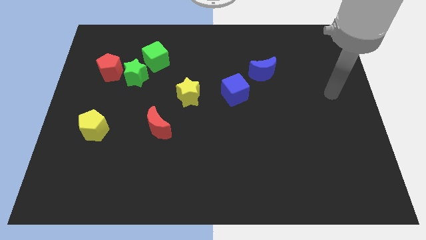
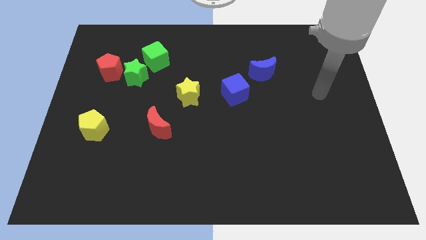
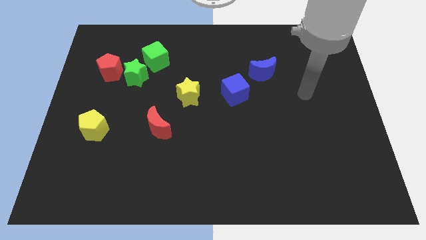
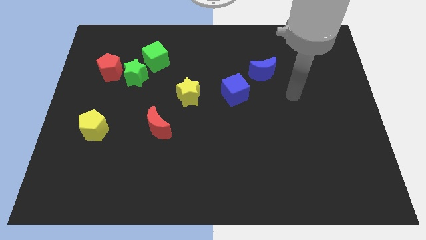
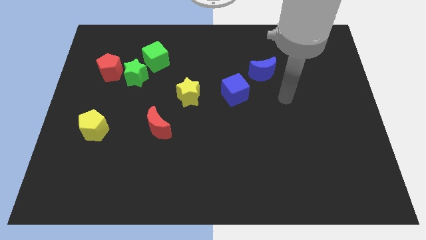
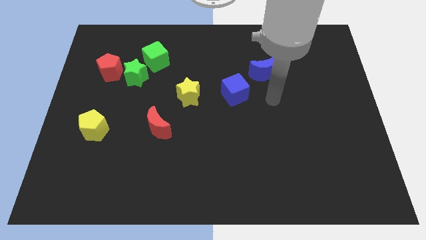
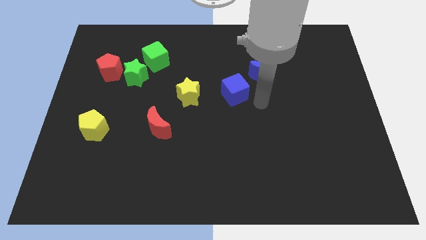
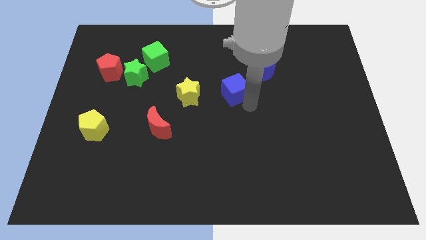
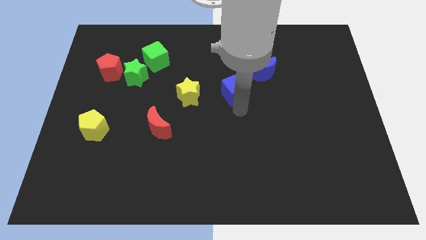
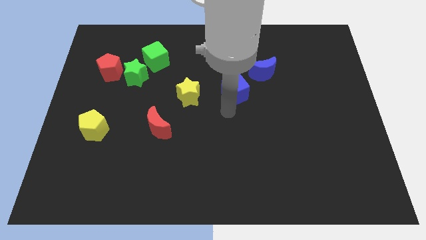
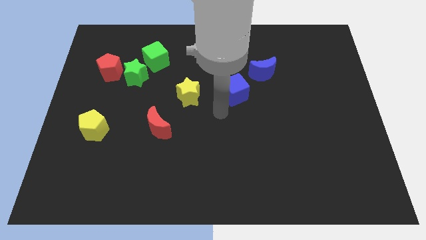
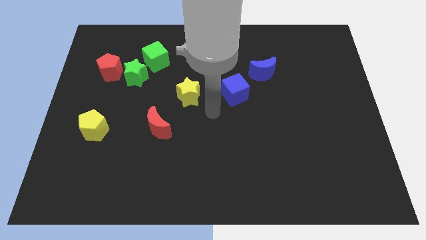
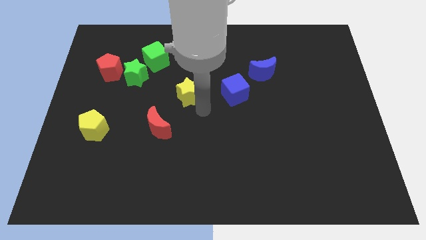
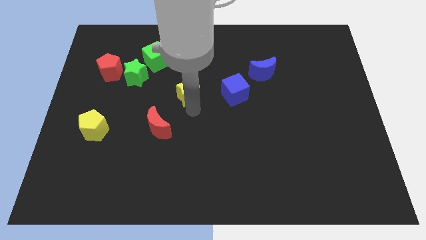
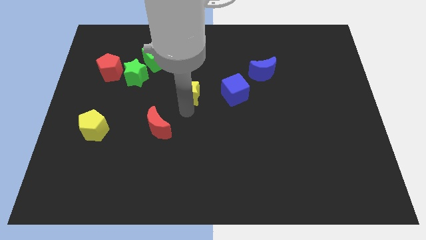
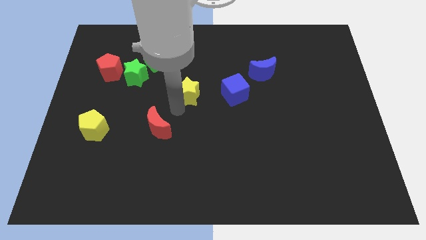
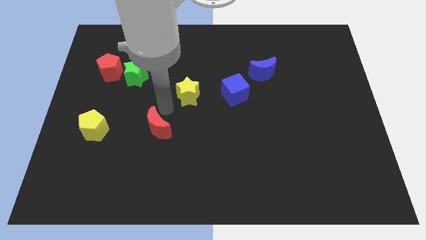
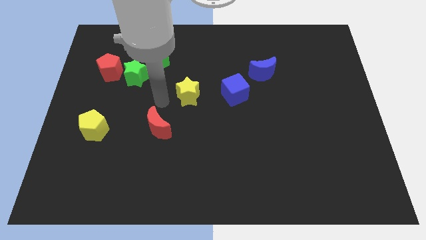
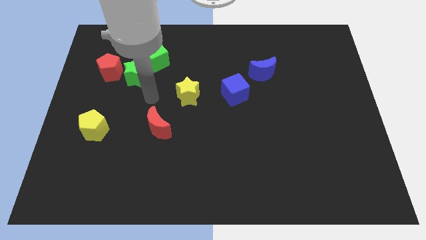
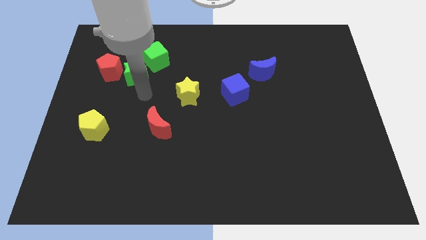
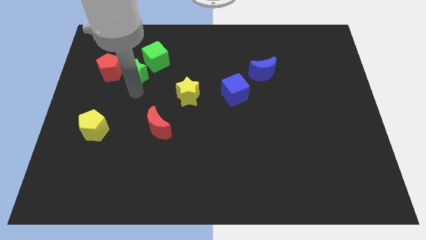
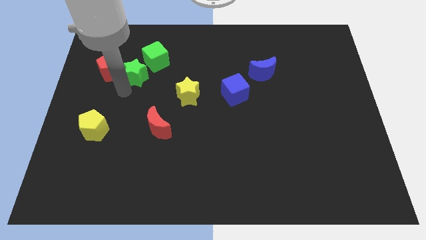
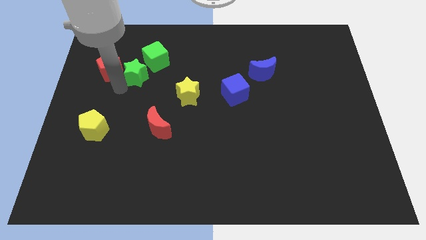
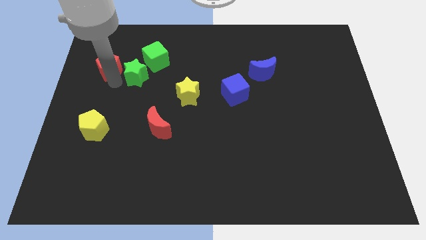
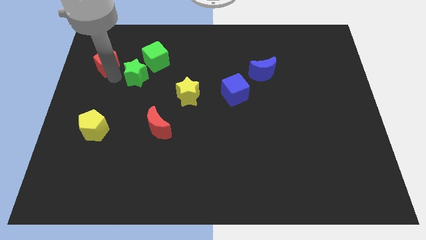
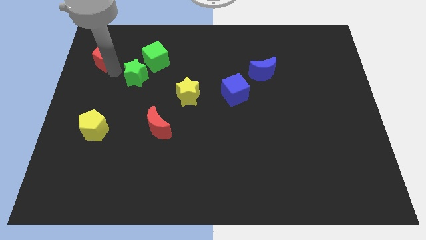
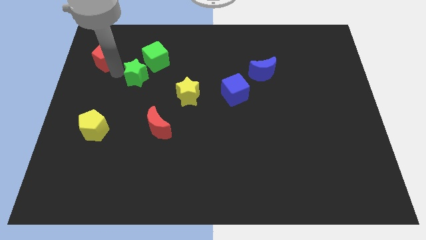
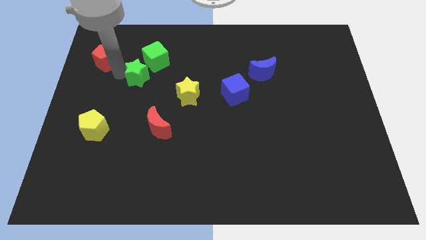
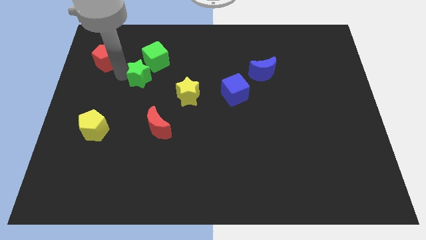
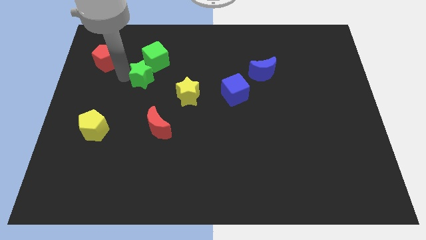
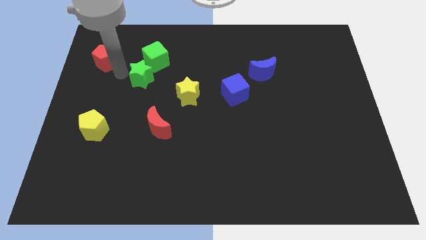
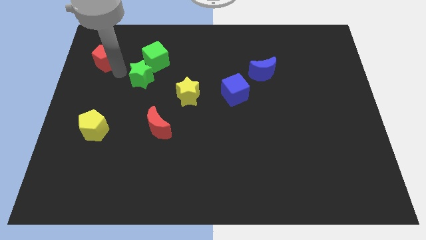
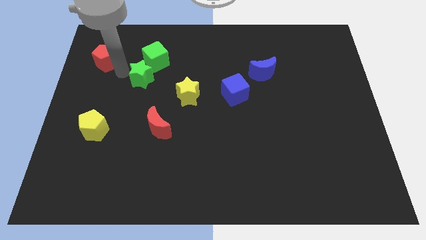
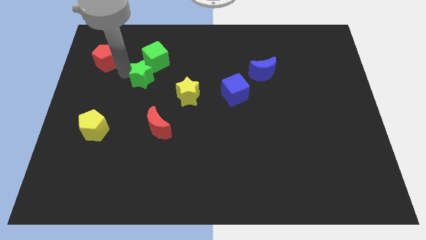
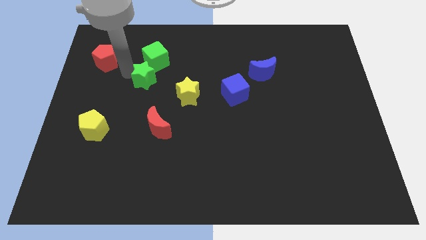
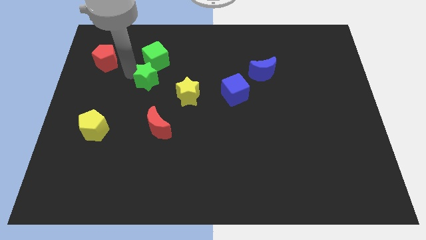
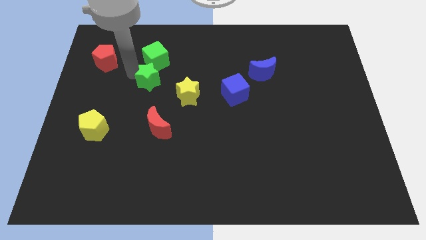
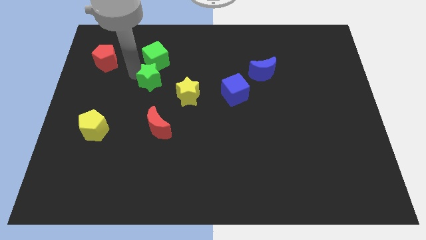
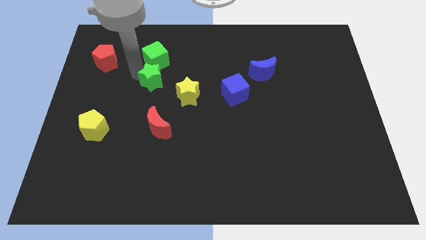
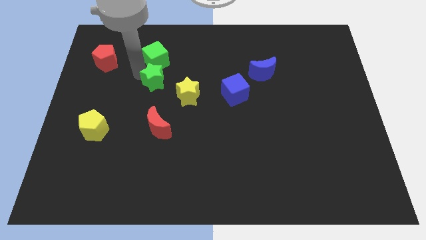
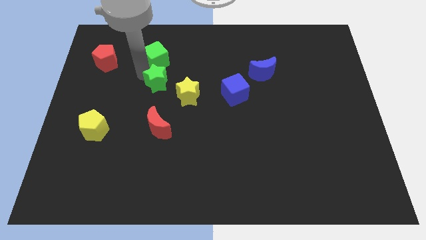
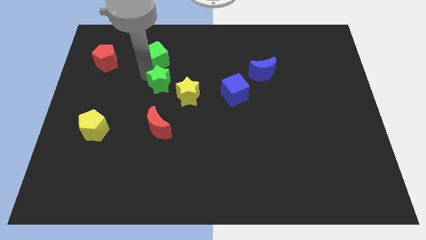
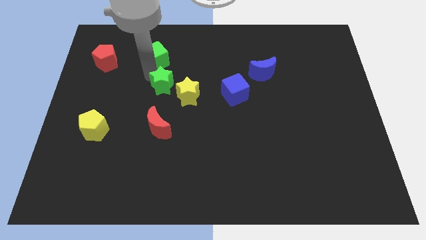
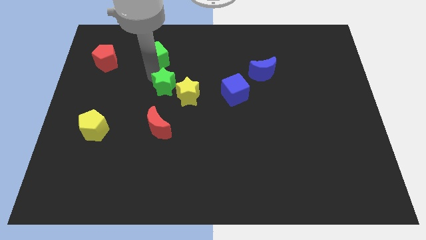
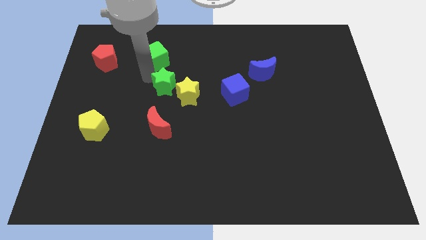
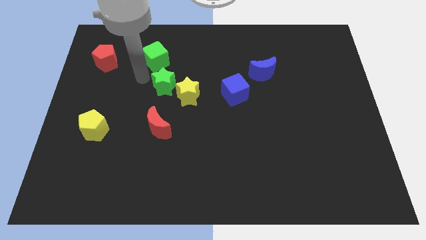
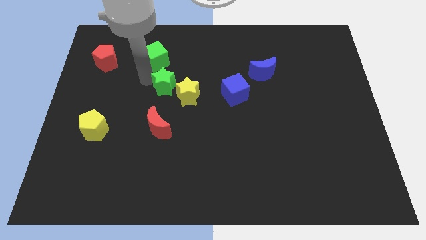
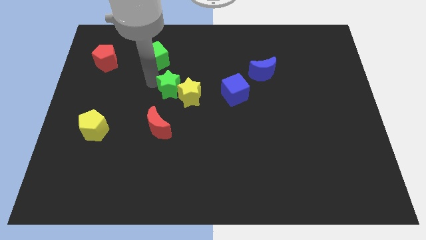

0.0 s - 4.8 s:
slide the green star towards the yellow star

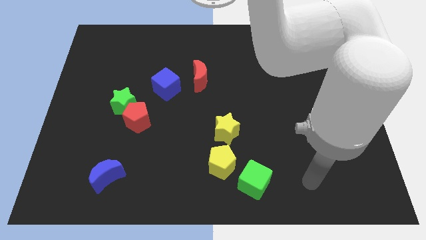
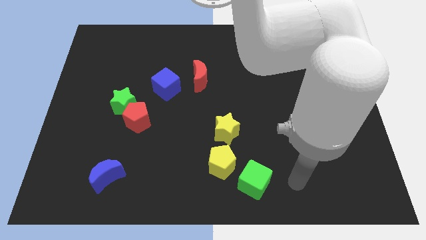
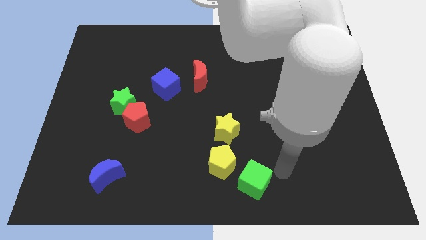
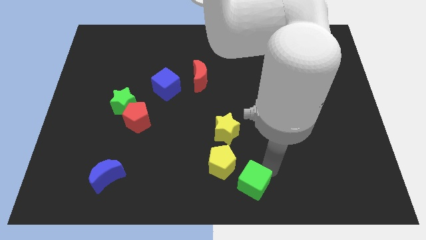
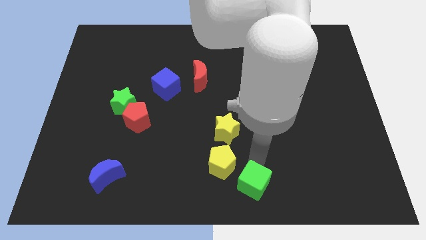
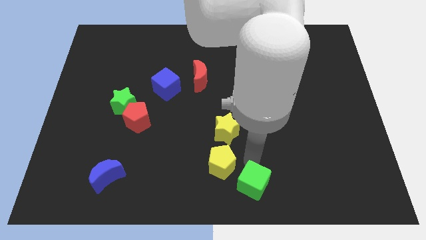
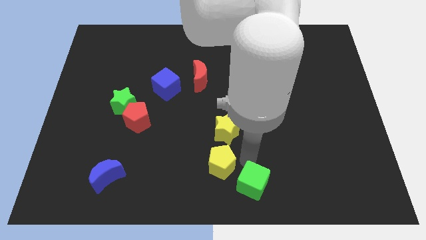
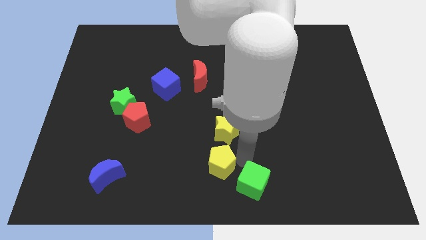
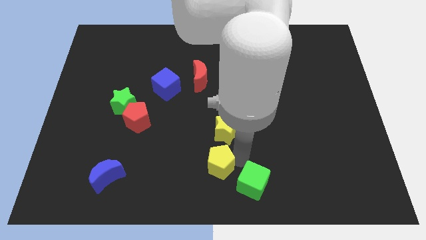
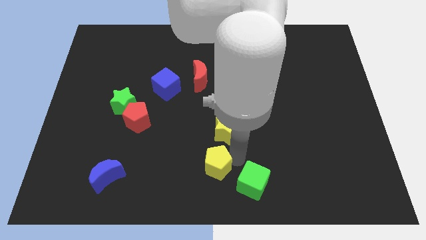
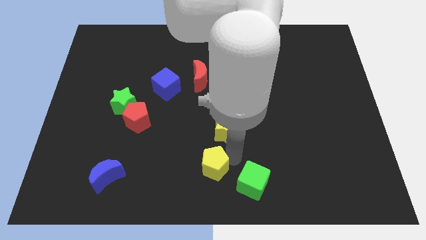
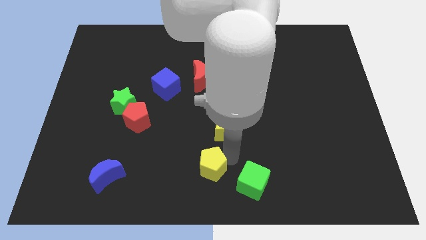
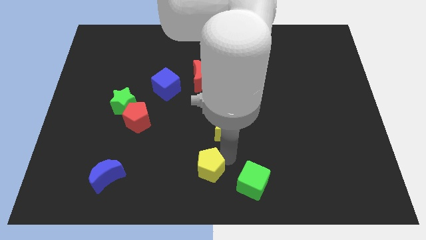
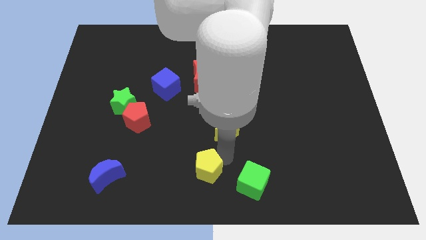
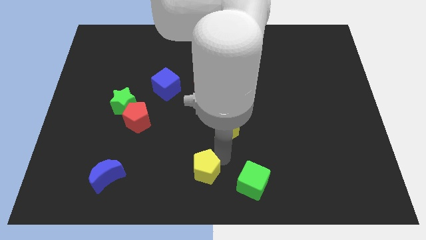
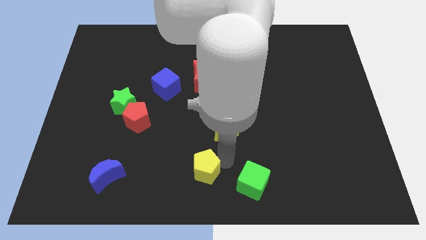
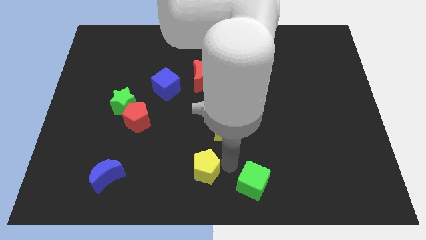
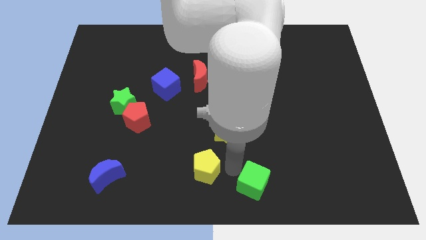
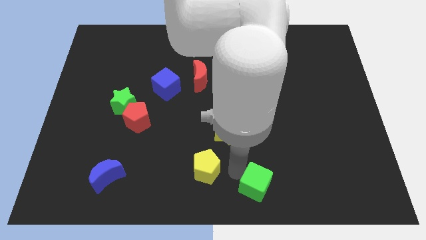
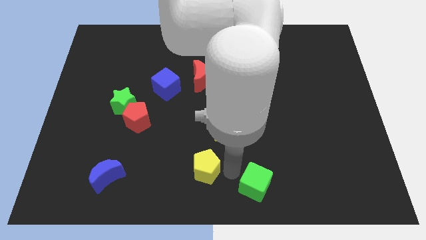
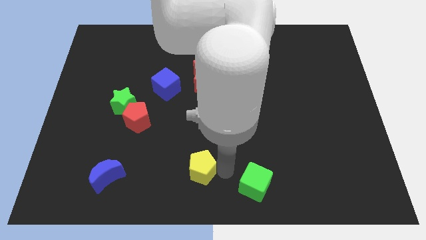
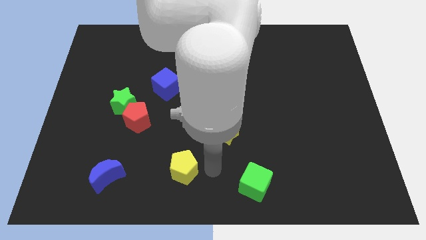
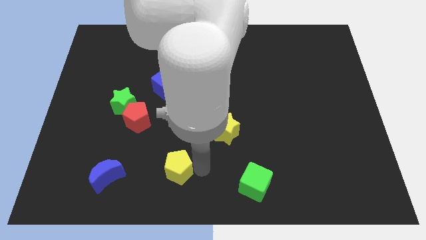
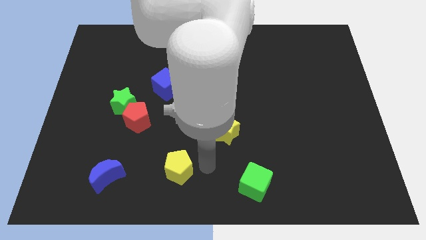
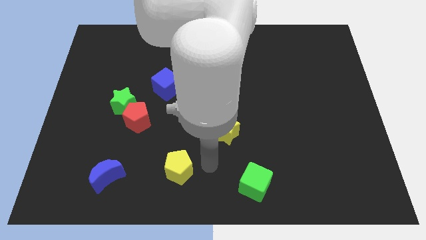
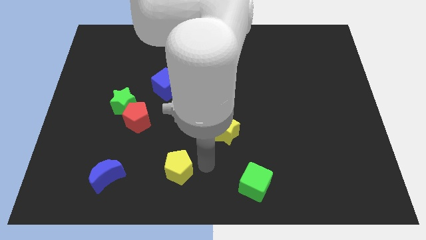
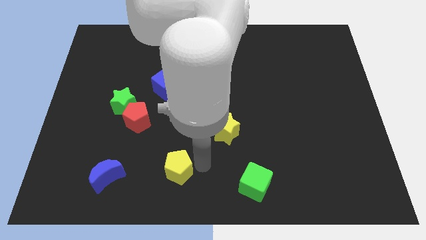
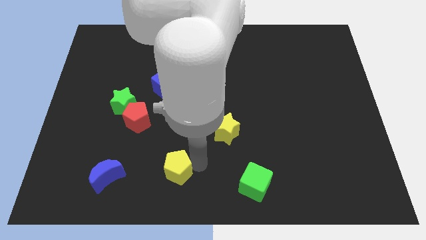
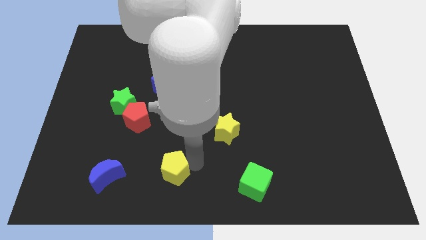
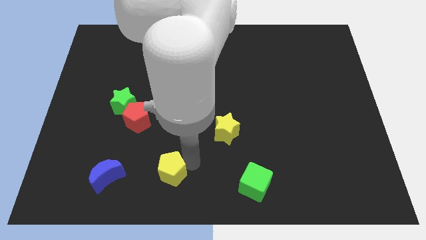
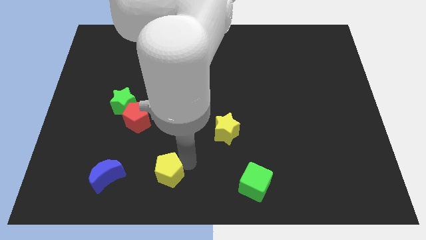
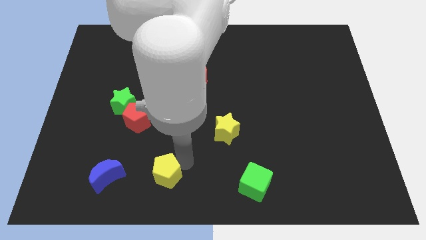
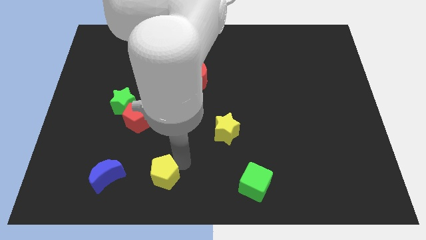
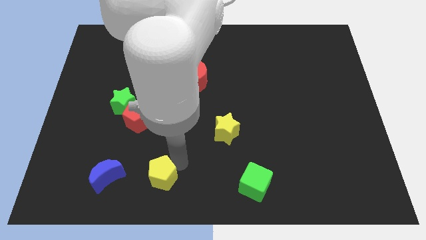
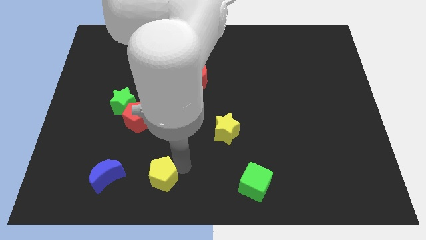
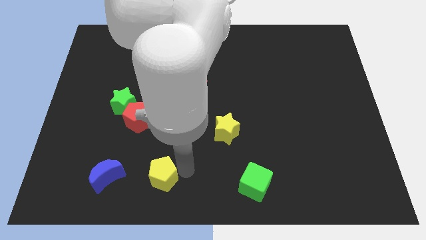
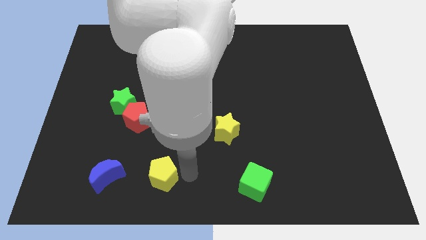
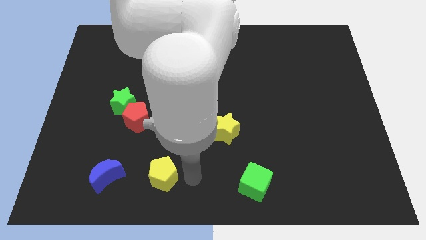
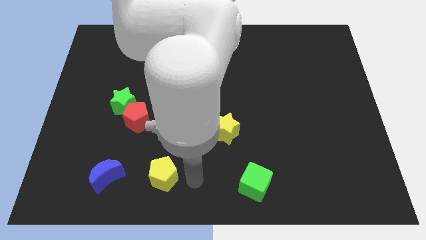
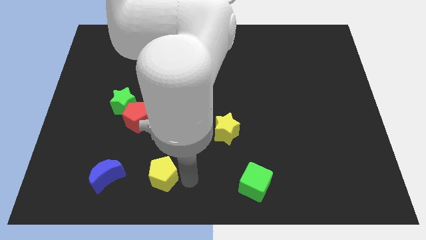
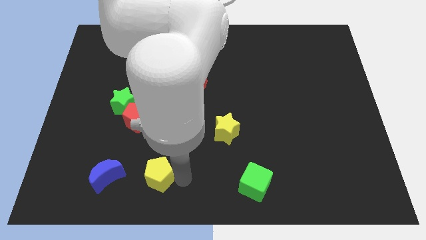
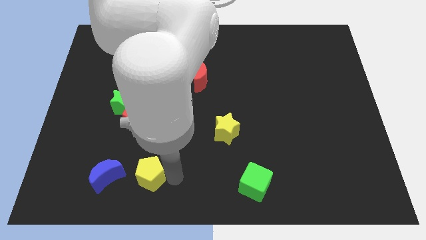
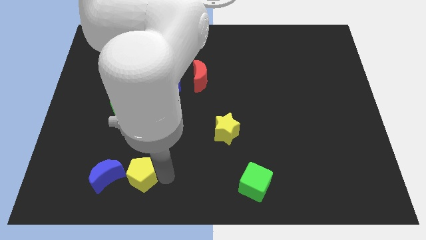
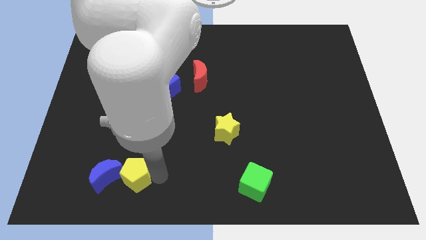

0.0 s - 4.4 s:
slide the yellow pentagon towards the blue moon
